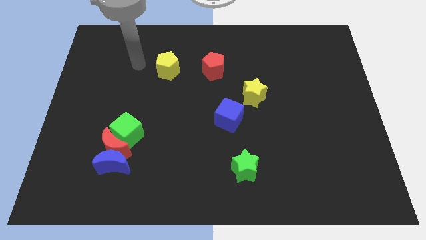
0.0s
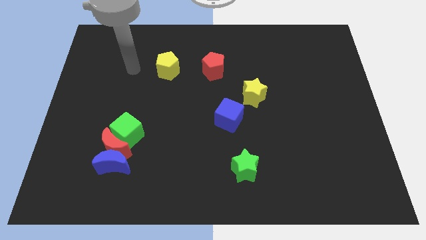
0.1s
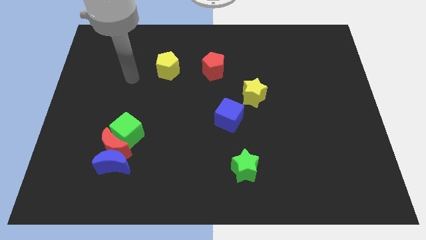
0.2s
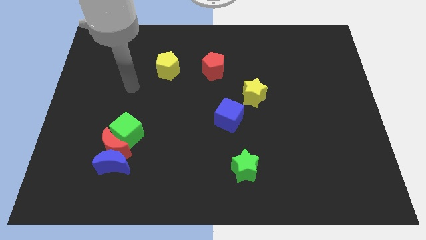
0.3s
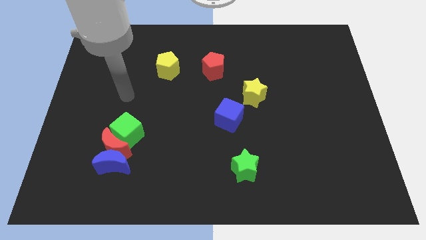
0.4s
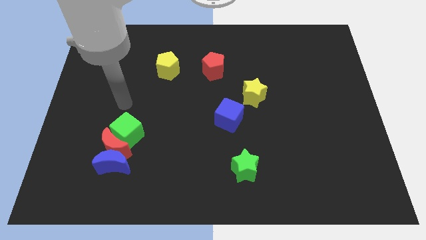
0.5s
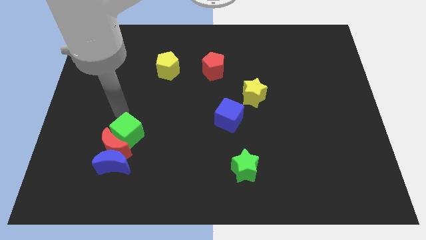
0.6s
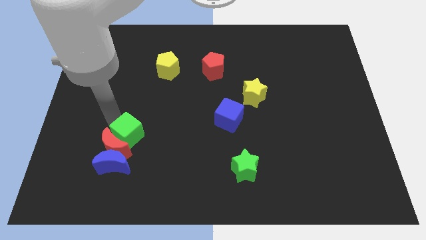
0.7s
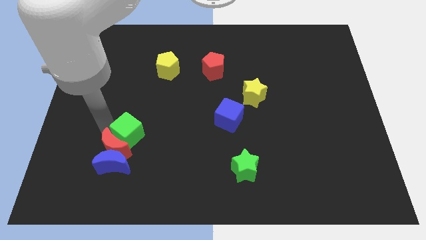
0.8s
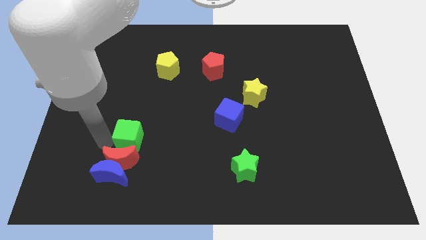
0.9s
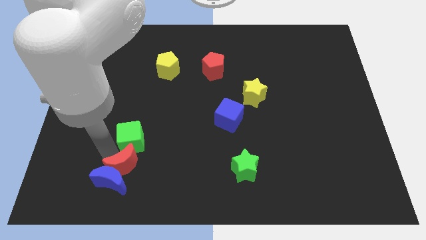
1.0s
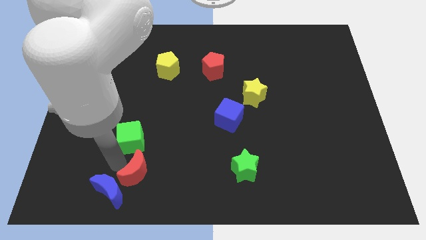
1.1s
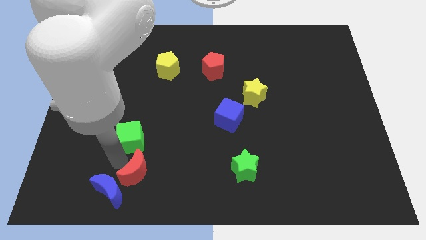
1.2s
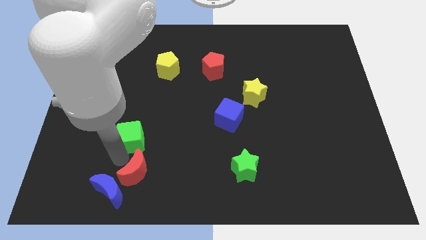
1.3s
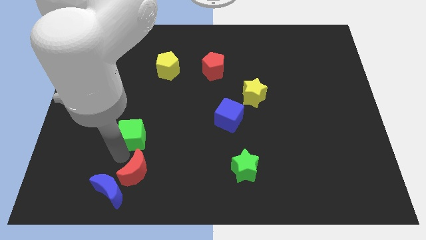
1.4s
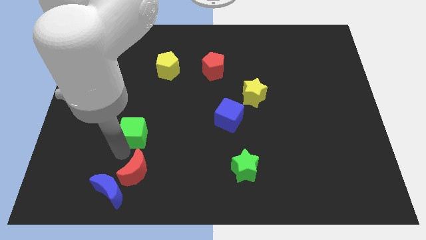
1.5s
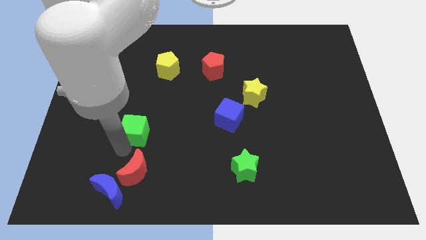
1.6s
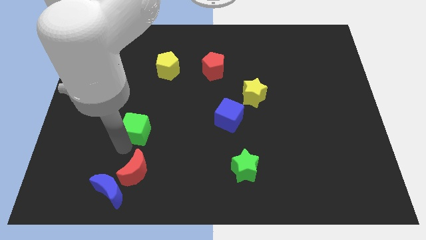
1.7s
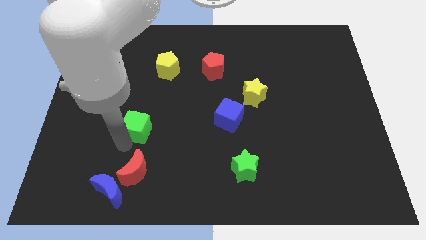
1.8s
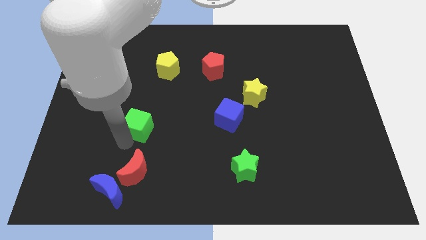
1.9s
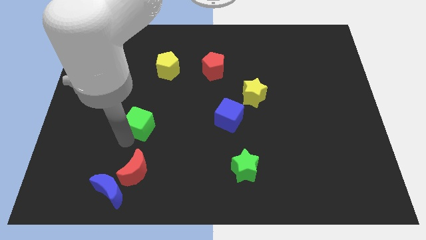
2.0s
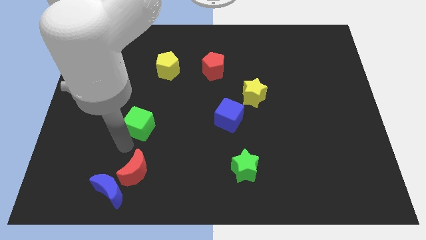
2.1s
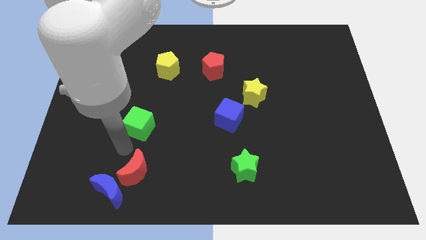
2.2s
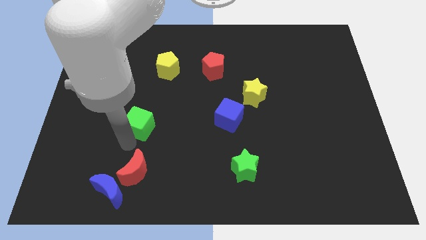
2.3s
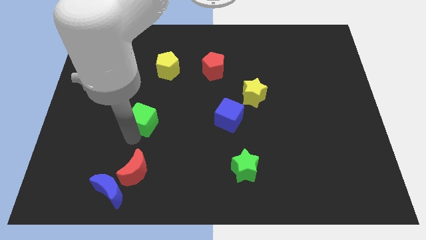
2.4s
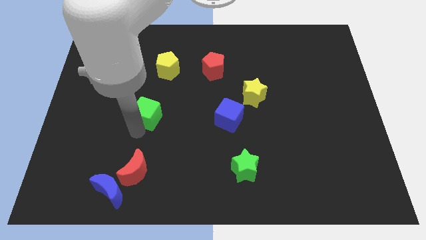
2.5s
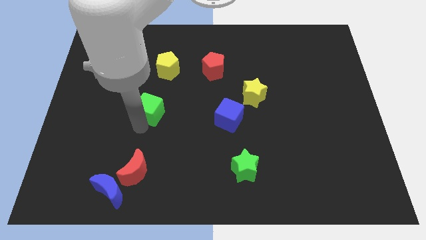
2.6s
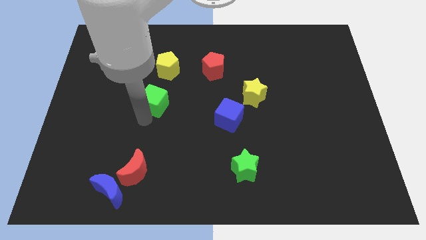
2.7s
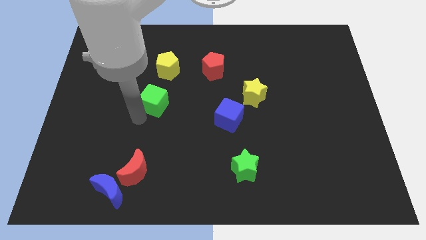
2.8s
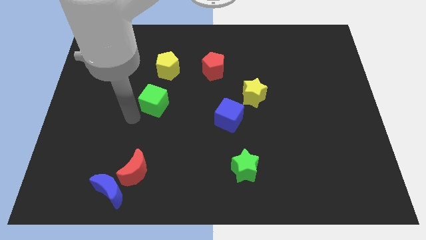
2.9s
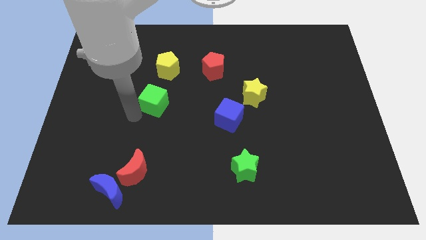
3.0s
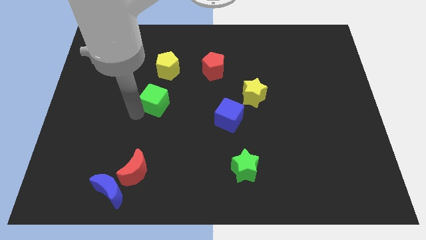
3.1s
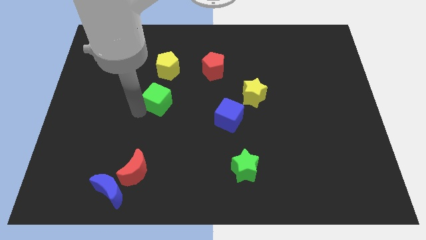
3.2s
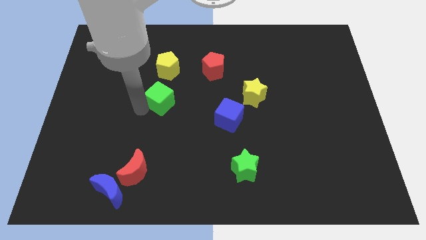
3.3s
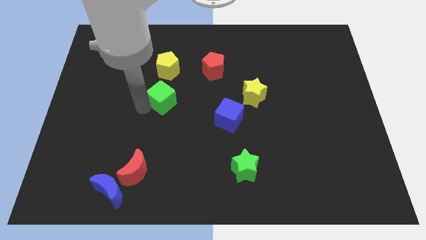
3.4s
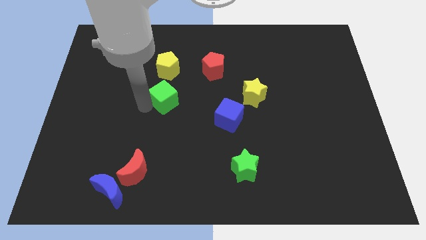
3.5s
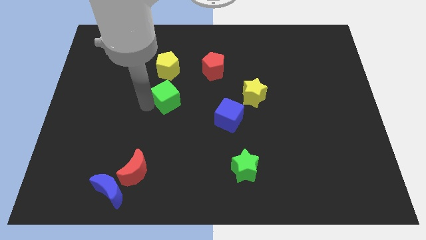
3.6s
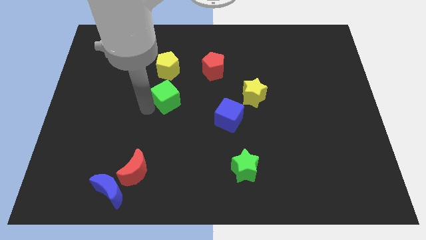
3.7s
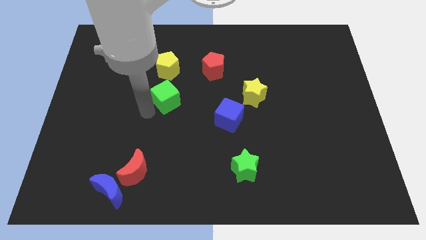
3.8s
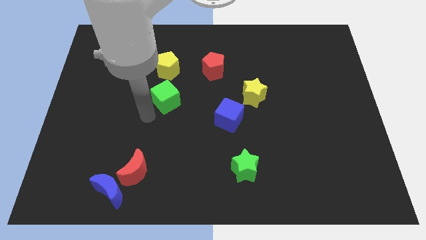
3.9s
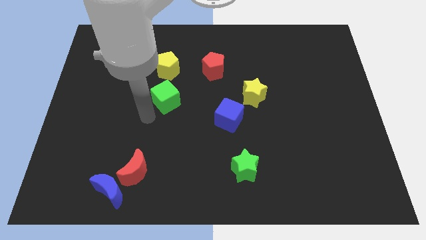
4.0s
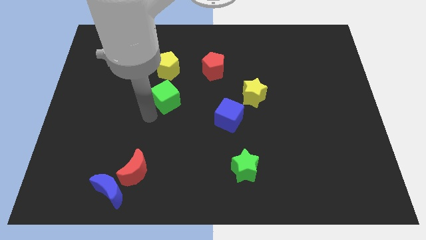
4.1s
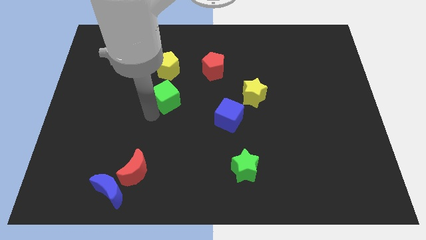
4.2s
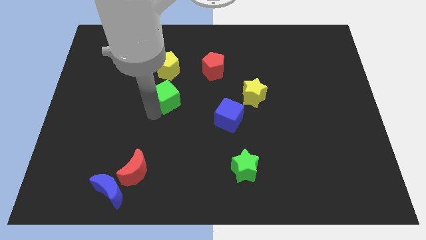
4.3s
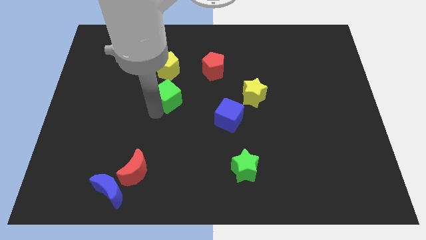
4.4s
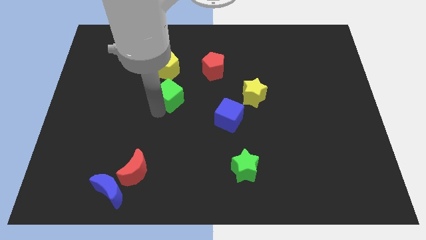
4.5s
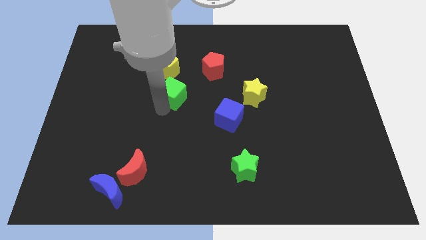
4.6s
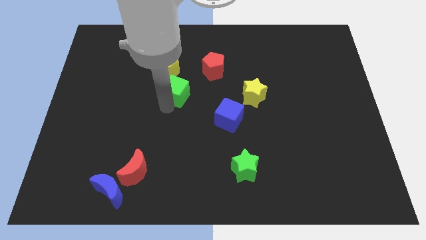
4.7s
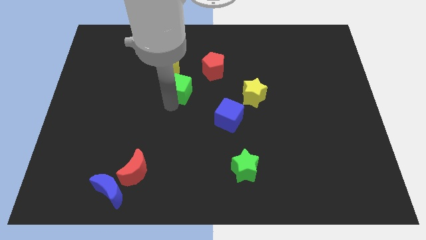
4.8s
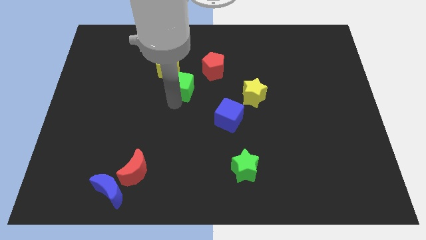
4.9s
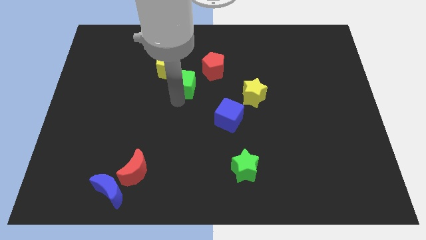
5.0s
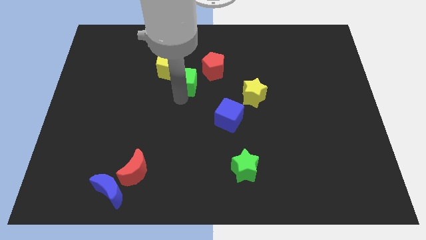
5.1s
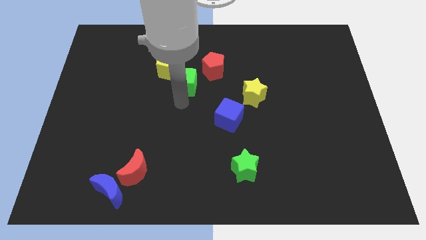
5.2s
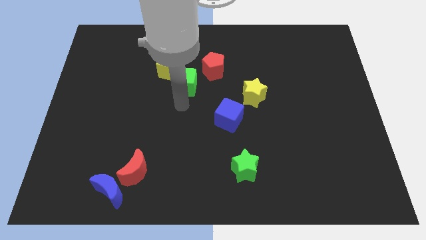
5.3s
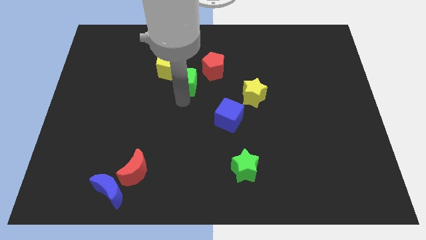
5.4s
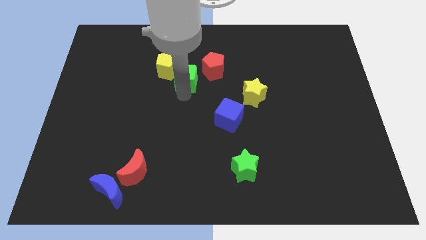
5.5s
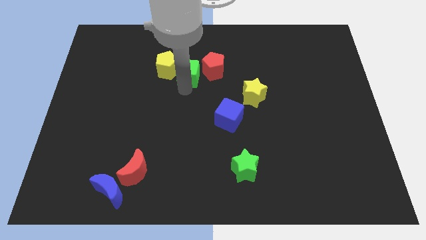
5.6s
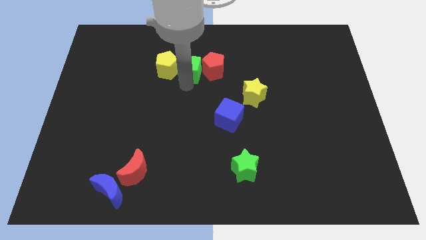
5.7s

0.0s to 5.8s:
put the green cube to the top left side of the red pentagon

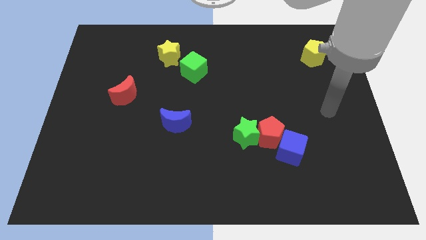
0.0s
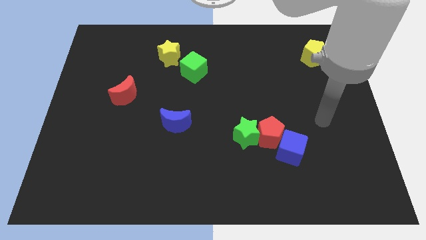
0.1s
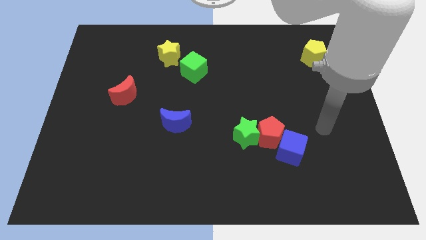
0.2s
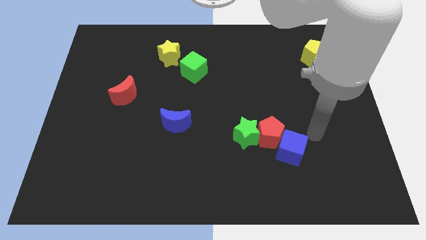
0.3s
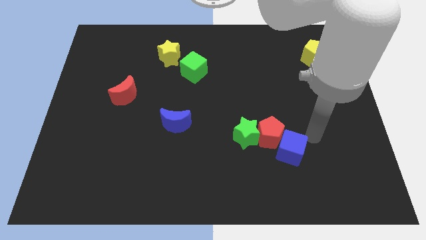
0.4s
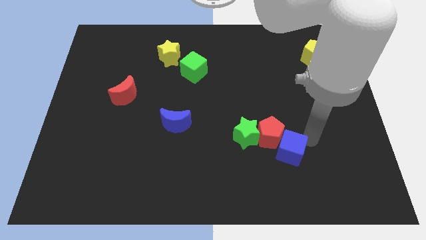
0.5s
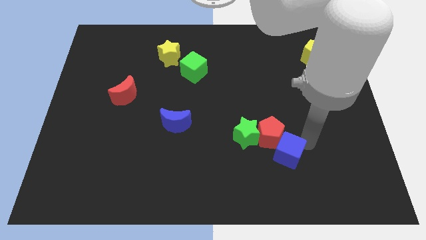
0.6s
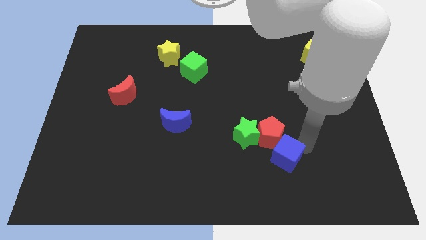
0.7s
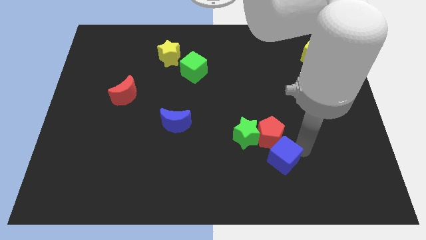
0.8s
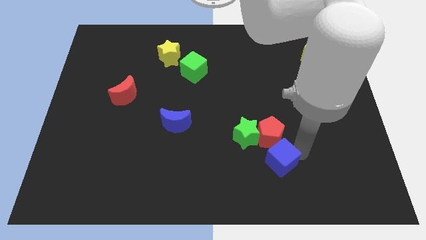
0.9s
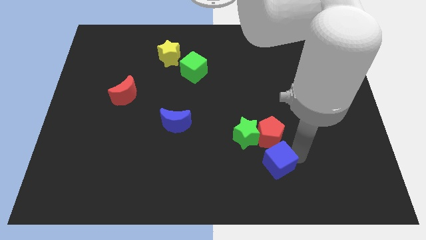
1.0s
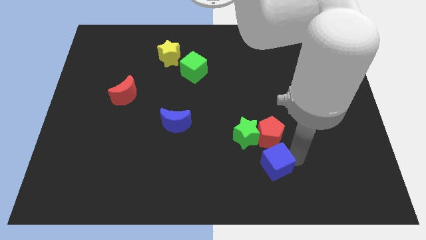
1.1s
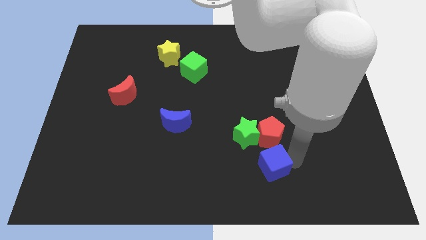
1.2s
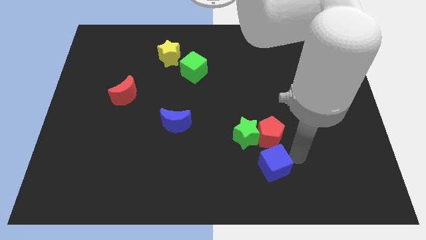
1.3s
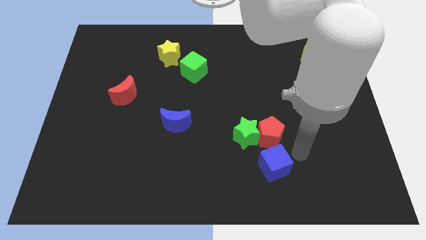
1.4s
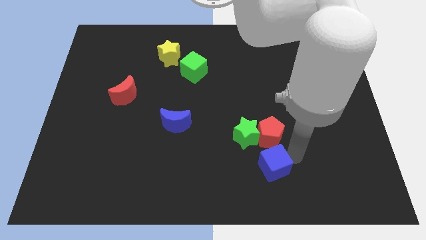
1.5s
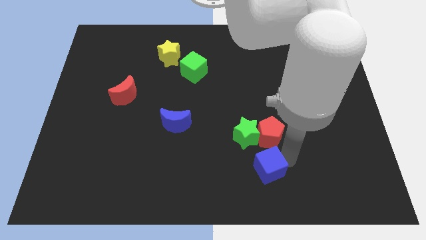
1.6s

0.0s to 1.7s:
move the blue cube to the bottom side of the green star
